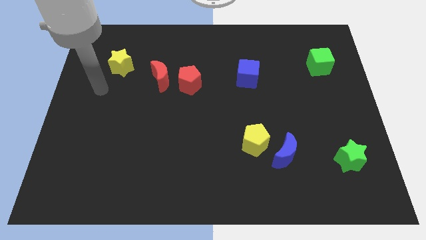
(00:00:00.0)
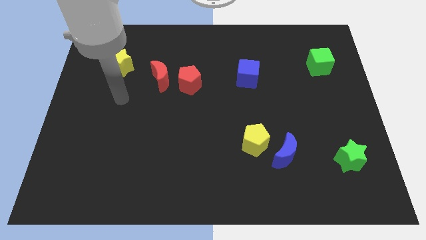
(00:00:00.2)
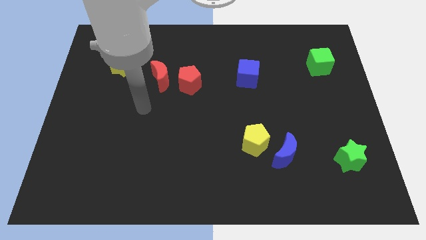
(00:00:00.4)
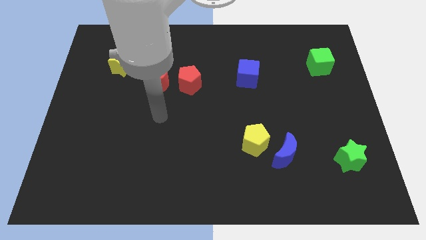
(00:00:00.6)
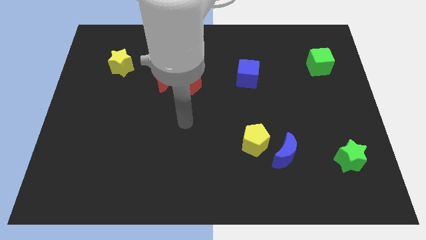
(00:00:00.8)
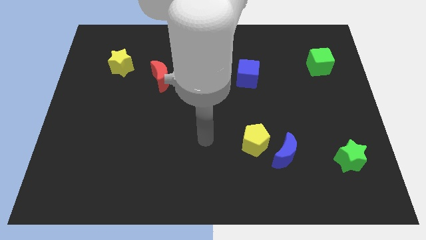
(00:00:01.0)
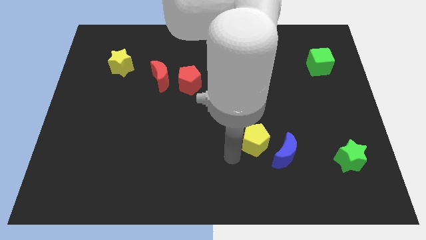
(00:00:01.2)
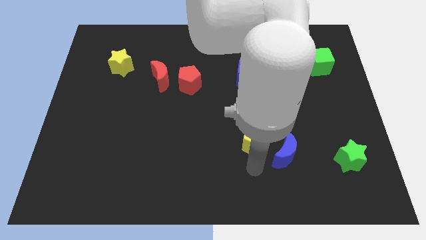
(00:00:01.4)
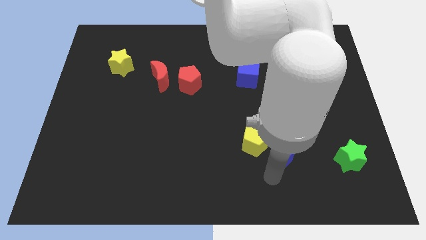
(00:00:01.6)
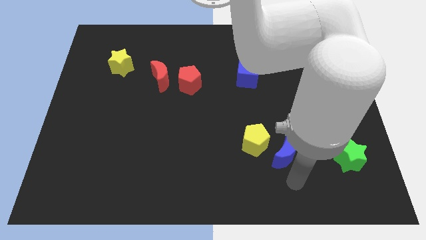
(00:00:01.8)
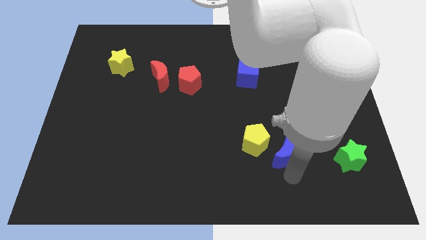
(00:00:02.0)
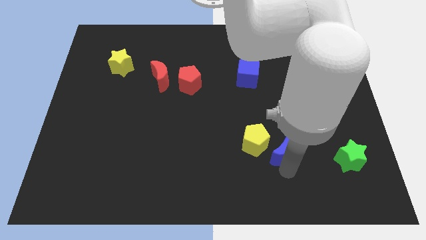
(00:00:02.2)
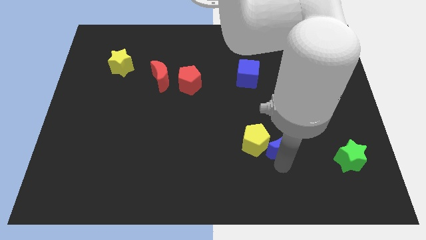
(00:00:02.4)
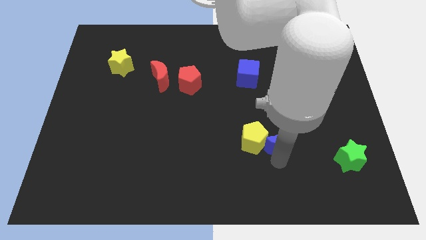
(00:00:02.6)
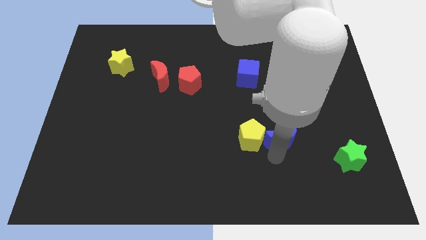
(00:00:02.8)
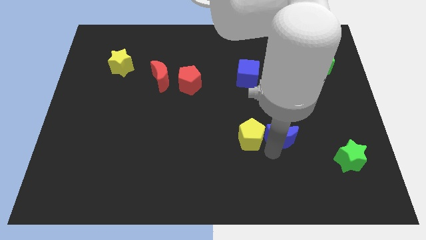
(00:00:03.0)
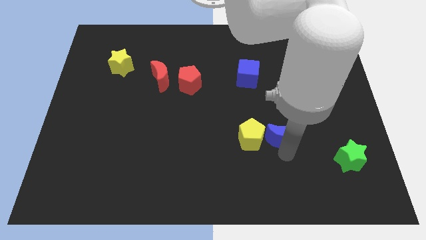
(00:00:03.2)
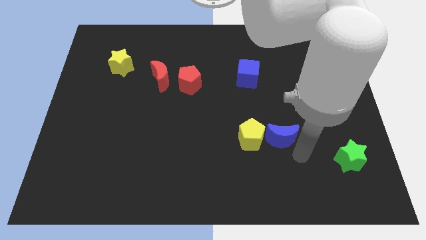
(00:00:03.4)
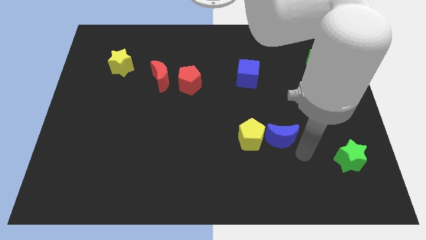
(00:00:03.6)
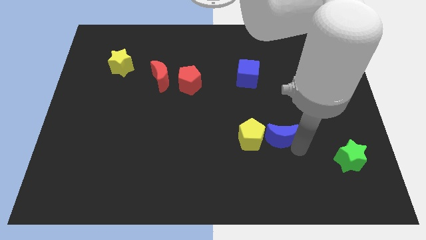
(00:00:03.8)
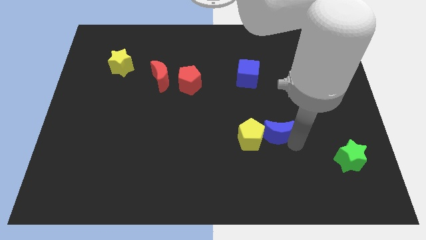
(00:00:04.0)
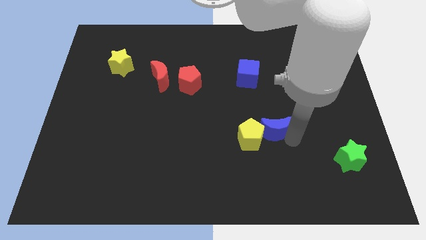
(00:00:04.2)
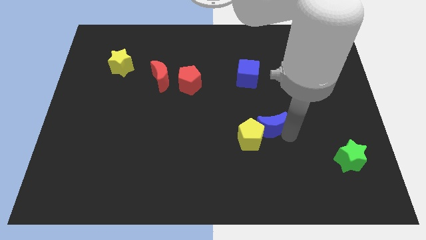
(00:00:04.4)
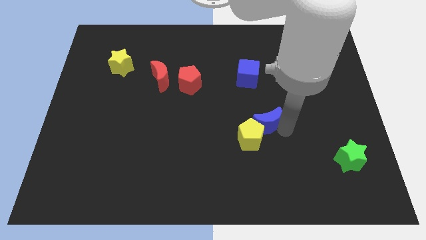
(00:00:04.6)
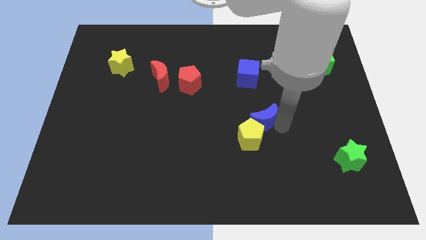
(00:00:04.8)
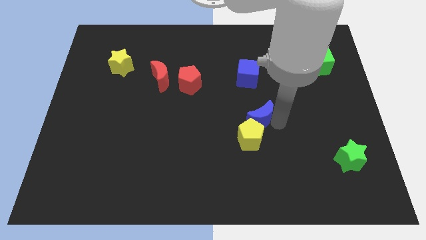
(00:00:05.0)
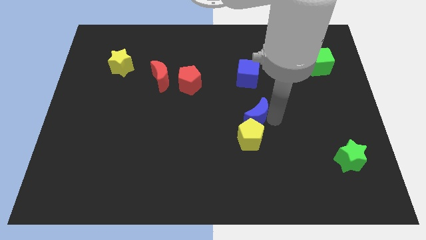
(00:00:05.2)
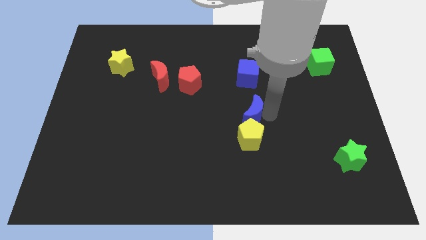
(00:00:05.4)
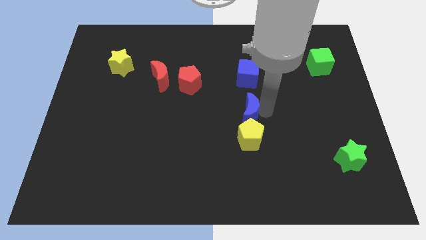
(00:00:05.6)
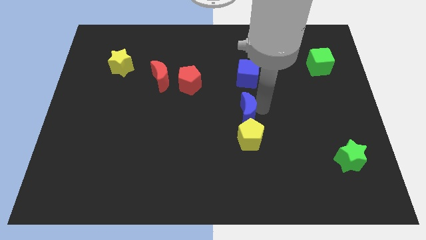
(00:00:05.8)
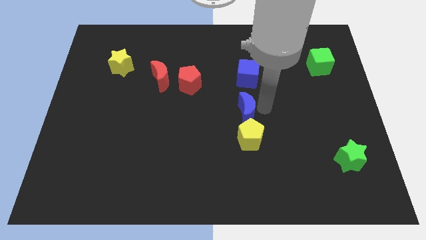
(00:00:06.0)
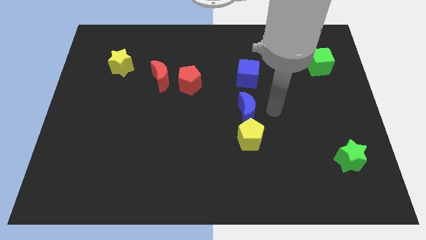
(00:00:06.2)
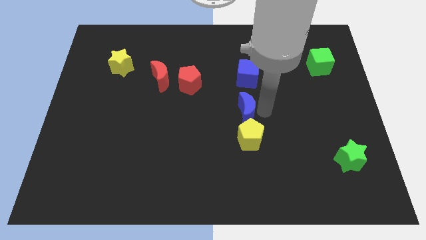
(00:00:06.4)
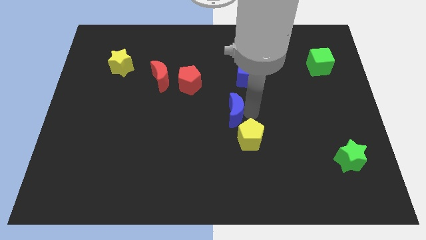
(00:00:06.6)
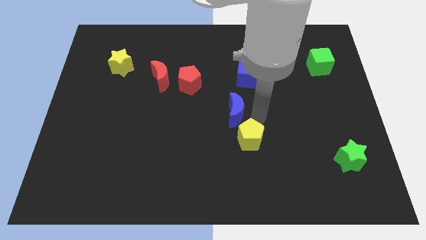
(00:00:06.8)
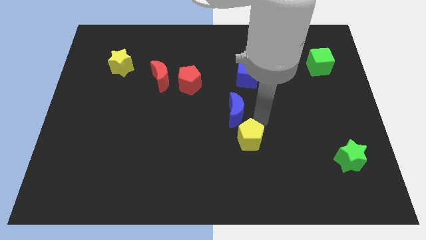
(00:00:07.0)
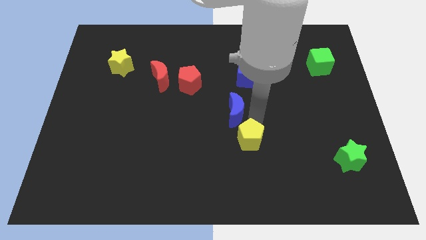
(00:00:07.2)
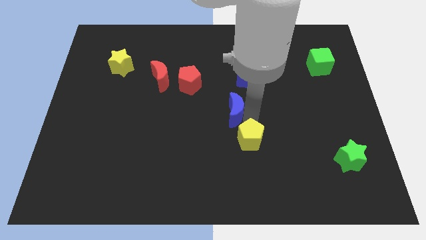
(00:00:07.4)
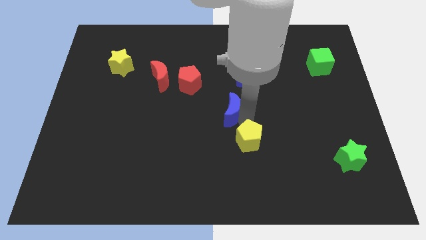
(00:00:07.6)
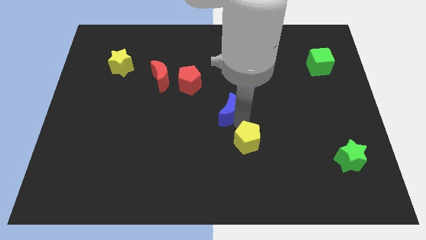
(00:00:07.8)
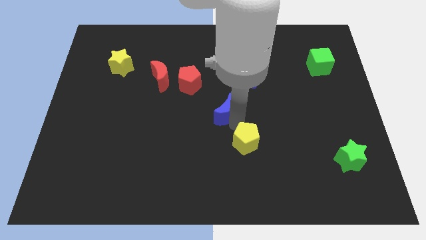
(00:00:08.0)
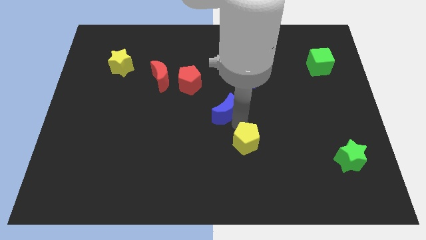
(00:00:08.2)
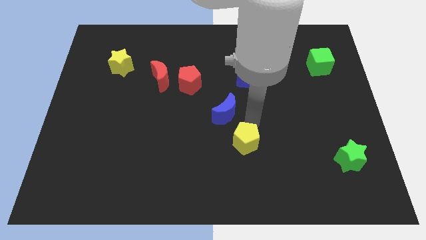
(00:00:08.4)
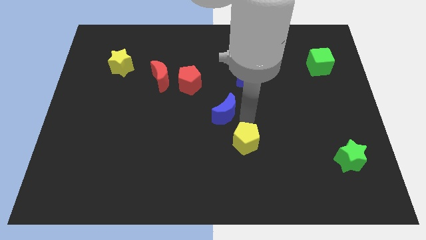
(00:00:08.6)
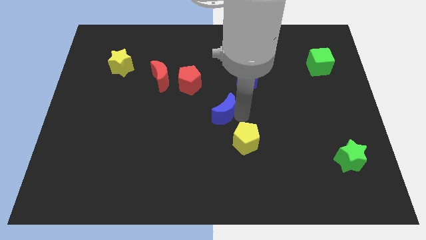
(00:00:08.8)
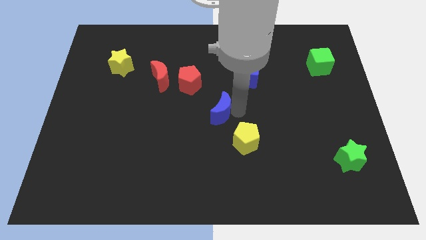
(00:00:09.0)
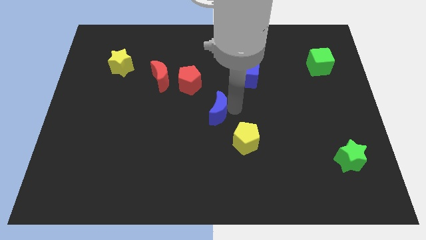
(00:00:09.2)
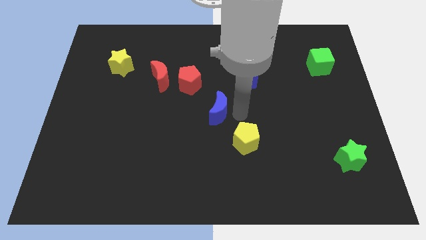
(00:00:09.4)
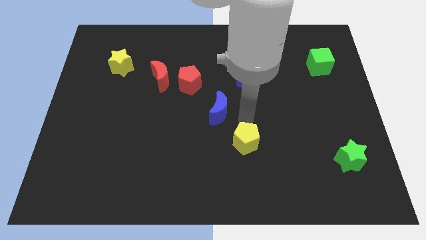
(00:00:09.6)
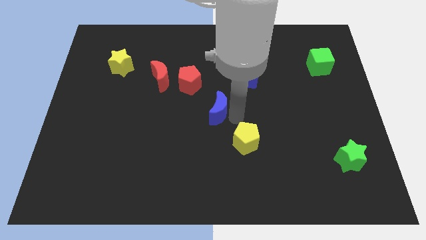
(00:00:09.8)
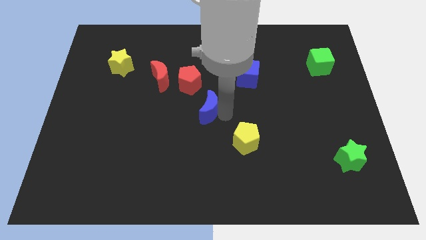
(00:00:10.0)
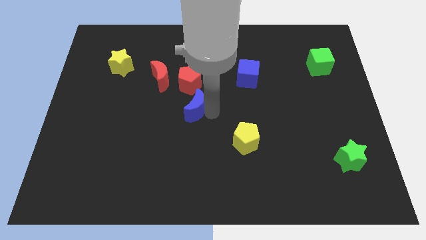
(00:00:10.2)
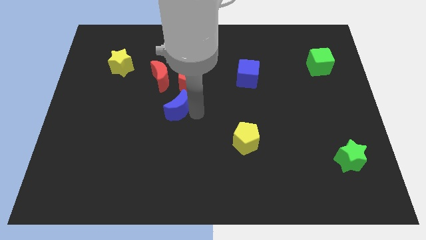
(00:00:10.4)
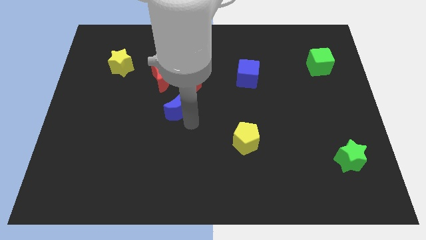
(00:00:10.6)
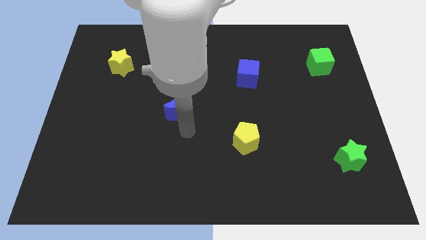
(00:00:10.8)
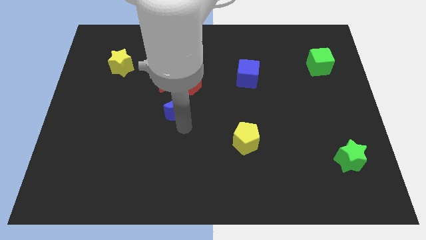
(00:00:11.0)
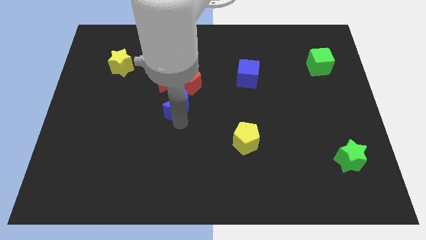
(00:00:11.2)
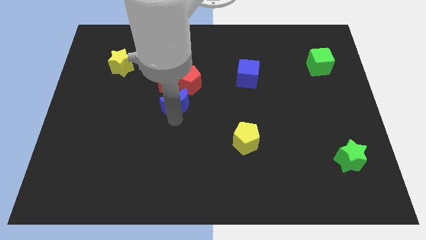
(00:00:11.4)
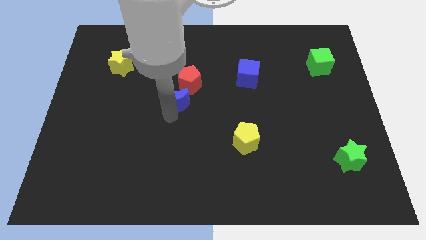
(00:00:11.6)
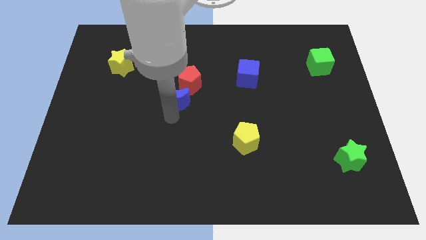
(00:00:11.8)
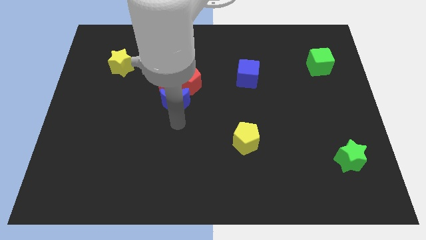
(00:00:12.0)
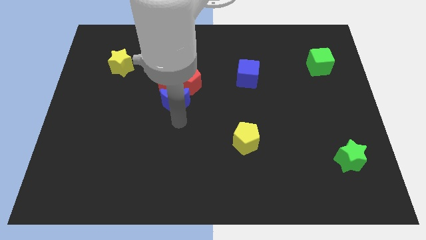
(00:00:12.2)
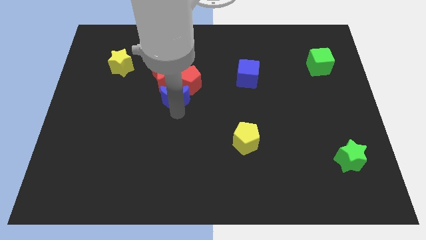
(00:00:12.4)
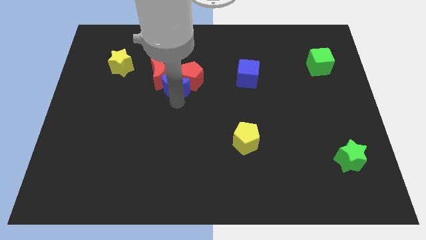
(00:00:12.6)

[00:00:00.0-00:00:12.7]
move the blue moon next to the red moon

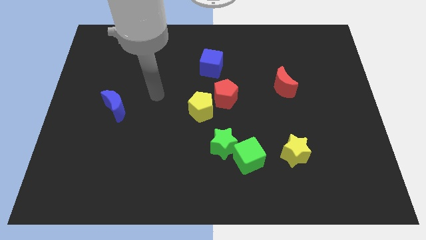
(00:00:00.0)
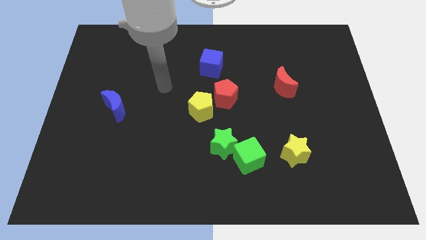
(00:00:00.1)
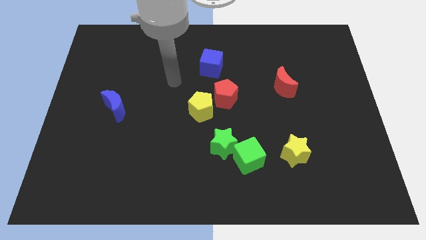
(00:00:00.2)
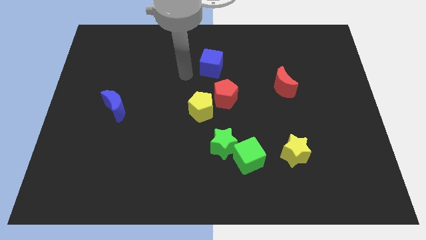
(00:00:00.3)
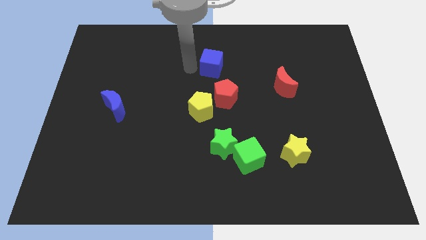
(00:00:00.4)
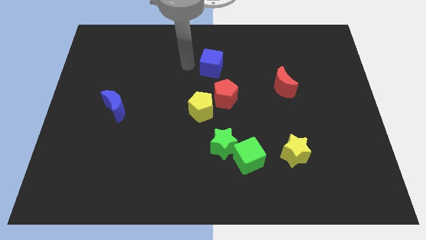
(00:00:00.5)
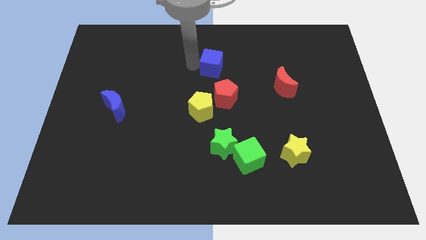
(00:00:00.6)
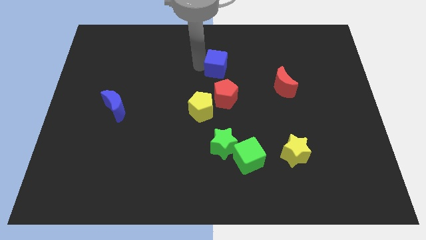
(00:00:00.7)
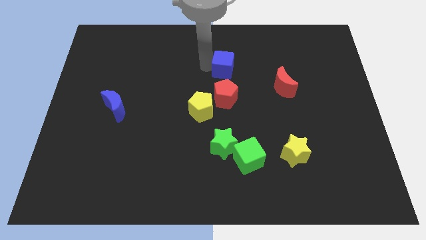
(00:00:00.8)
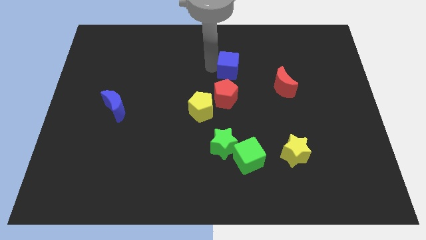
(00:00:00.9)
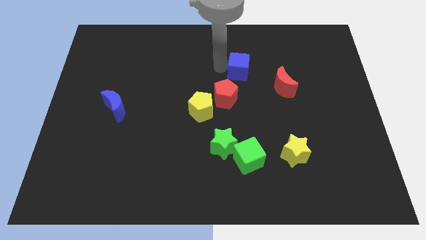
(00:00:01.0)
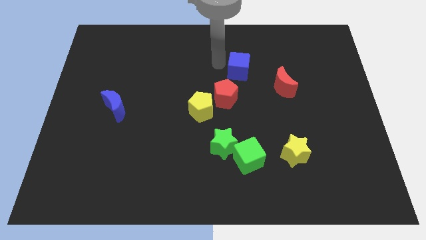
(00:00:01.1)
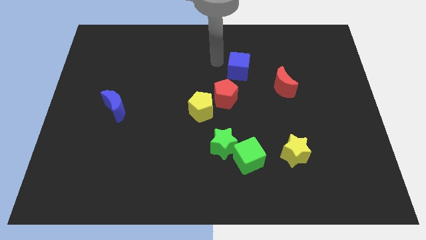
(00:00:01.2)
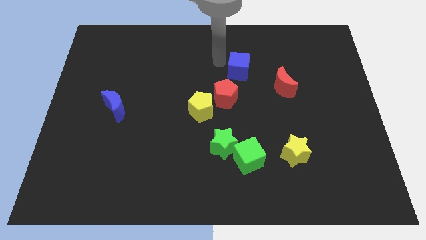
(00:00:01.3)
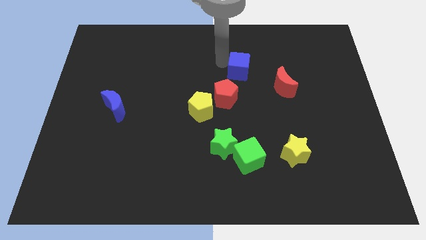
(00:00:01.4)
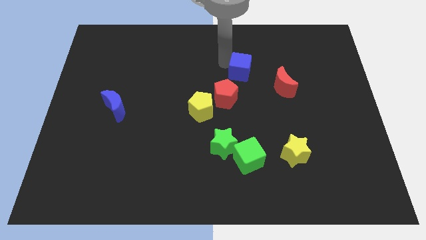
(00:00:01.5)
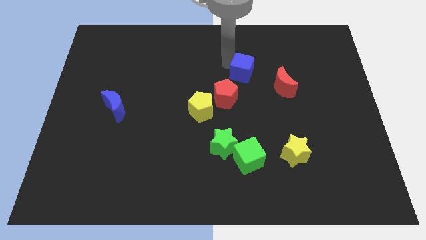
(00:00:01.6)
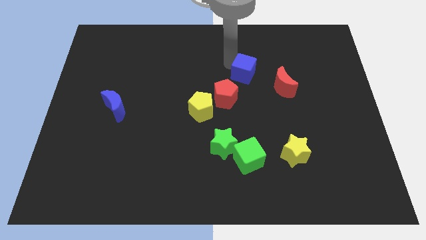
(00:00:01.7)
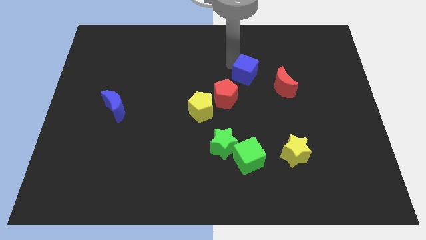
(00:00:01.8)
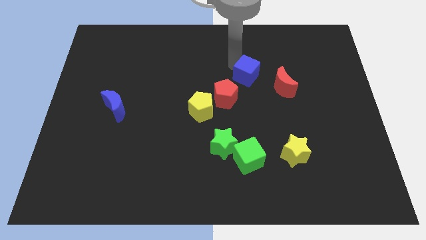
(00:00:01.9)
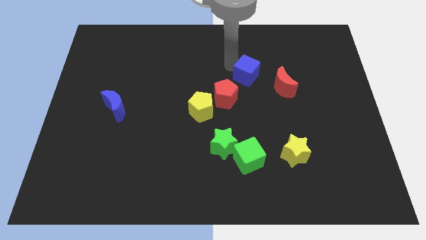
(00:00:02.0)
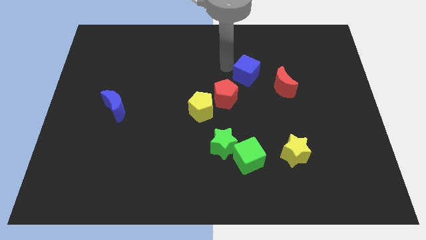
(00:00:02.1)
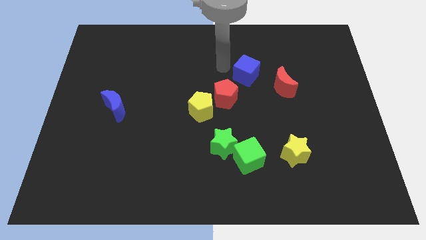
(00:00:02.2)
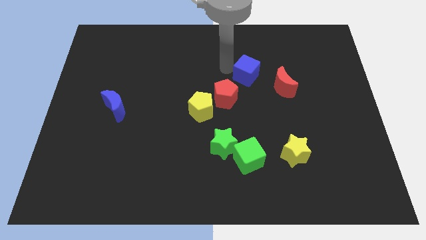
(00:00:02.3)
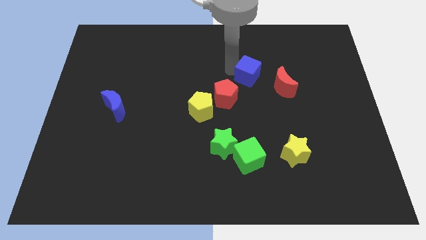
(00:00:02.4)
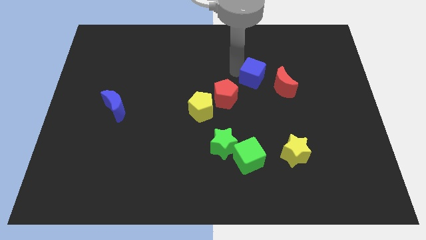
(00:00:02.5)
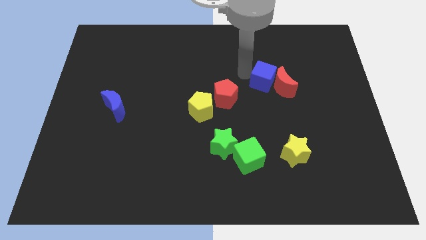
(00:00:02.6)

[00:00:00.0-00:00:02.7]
slide the blue cube to the red moon
